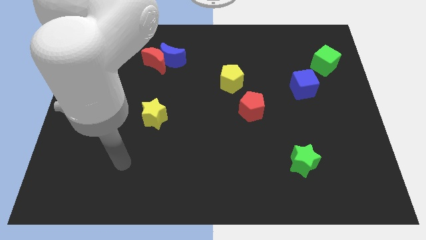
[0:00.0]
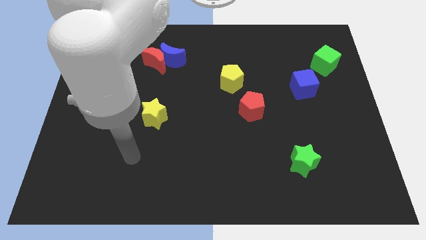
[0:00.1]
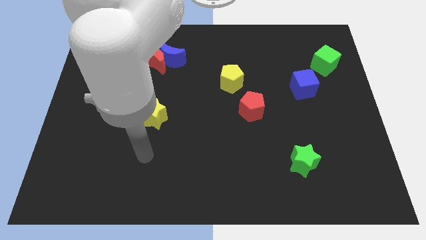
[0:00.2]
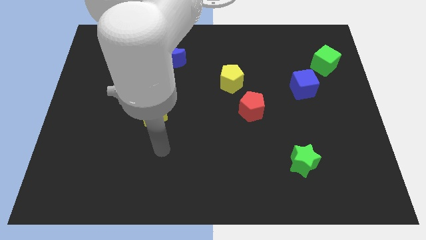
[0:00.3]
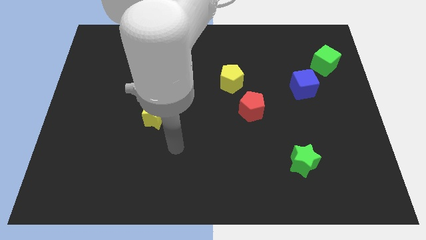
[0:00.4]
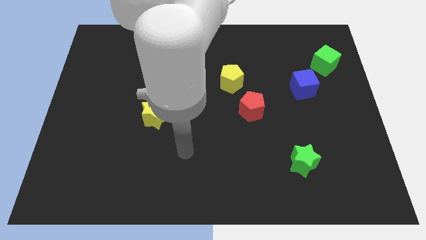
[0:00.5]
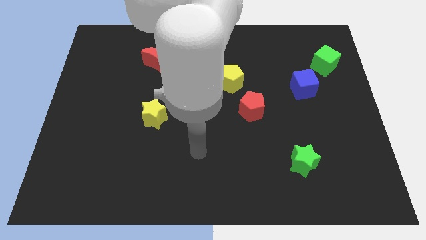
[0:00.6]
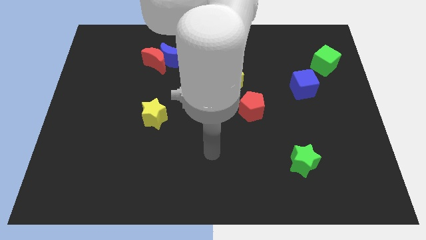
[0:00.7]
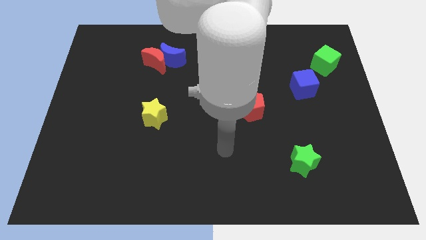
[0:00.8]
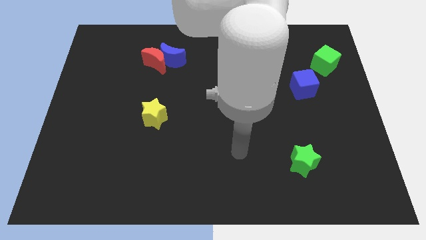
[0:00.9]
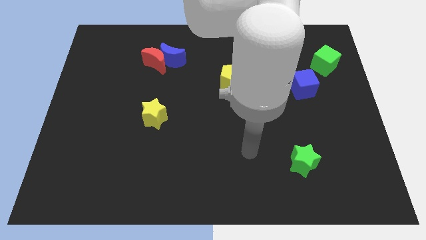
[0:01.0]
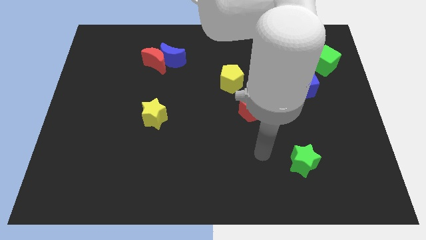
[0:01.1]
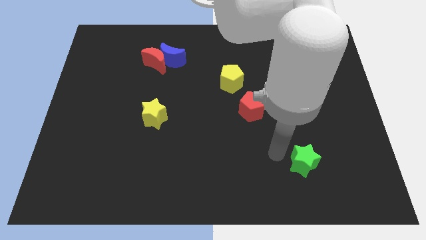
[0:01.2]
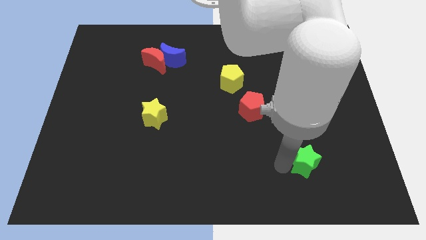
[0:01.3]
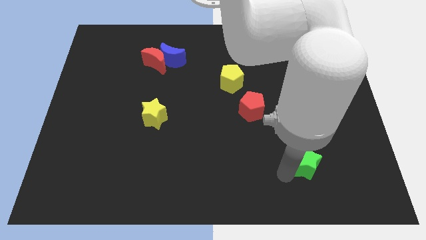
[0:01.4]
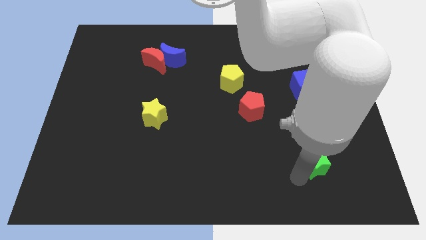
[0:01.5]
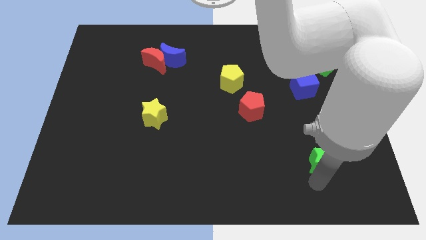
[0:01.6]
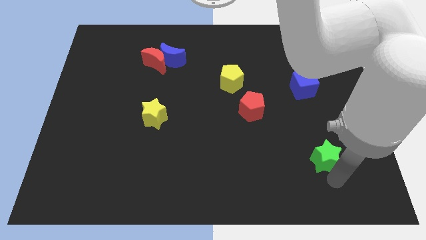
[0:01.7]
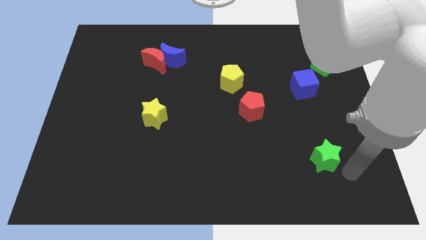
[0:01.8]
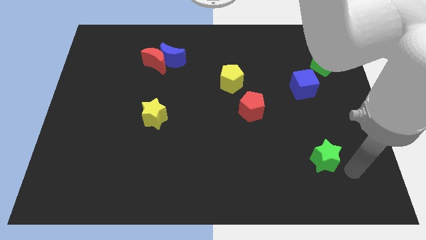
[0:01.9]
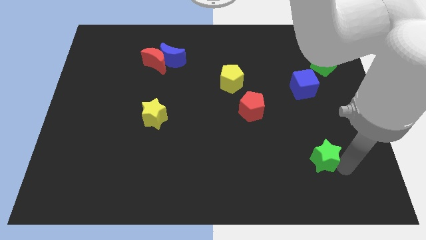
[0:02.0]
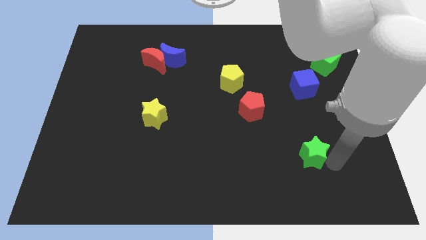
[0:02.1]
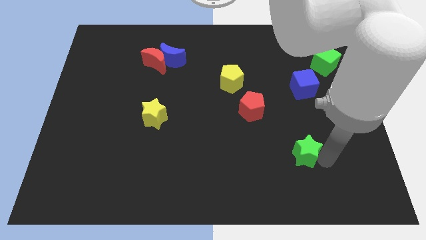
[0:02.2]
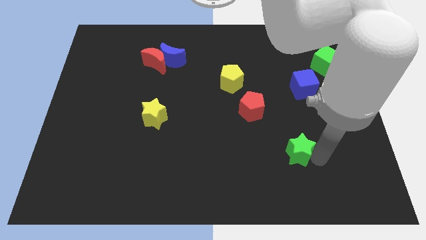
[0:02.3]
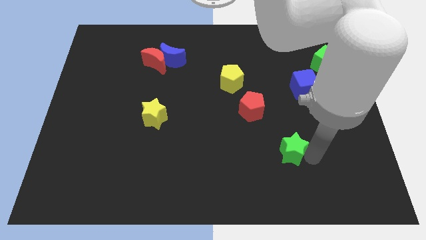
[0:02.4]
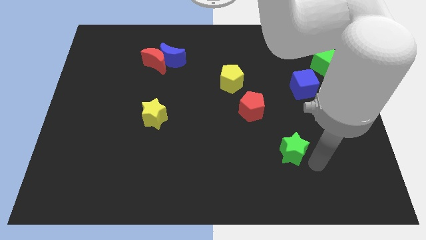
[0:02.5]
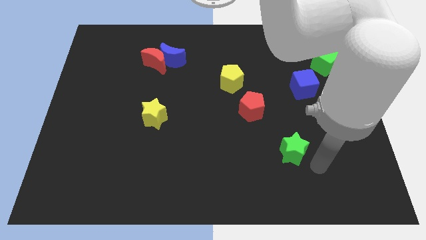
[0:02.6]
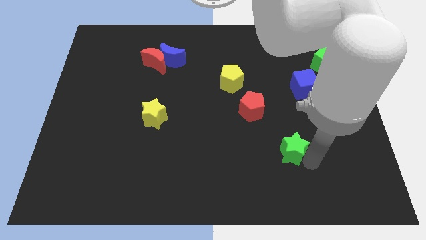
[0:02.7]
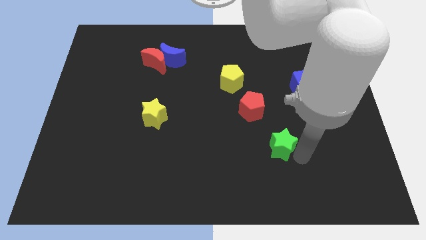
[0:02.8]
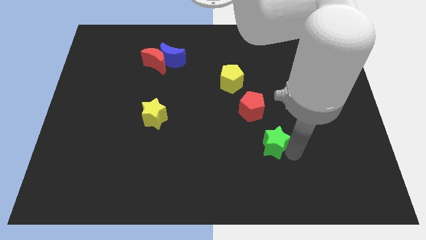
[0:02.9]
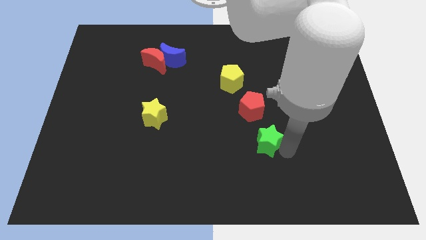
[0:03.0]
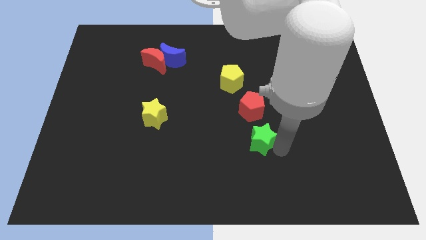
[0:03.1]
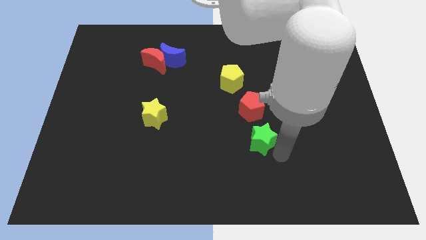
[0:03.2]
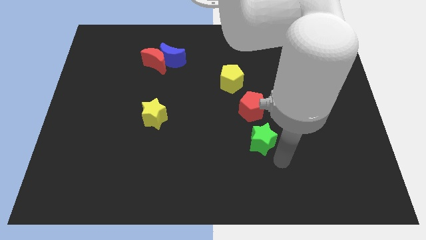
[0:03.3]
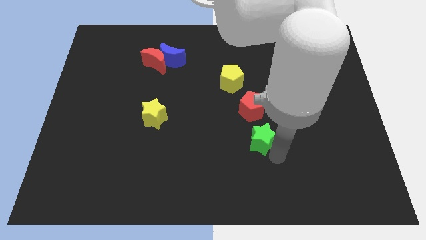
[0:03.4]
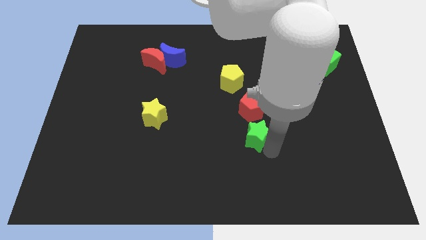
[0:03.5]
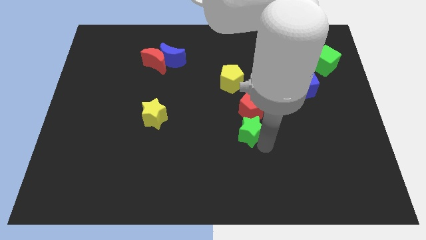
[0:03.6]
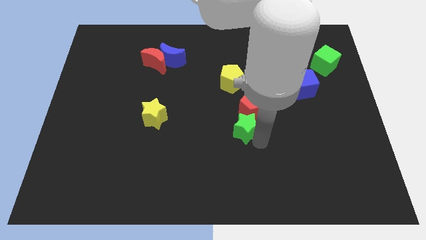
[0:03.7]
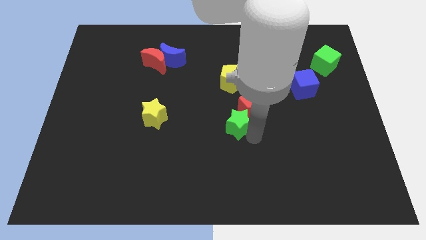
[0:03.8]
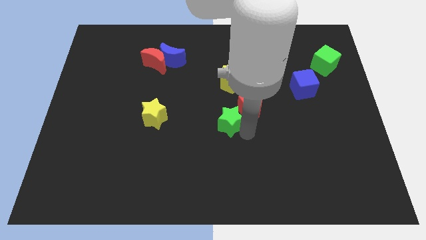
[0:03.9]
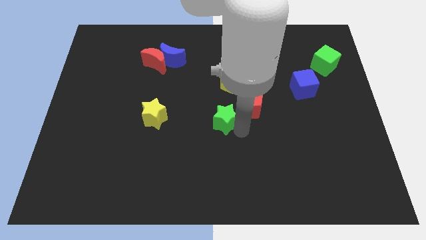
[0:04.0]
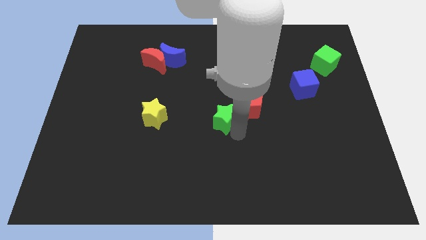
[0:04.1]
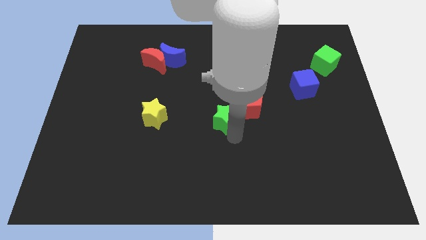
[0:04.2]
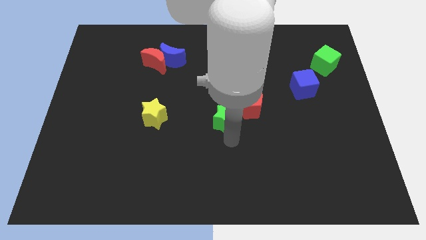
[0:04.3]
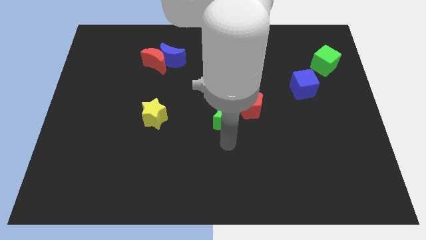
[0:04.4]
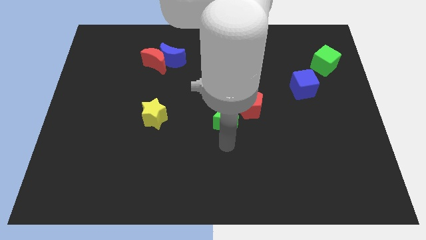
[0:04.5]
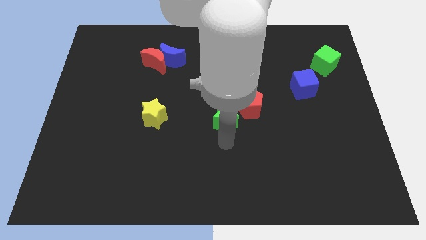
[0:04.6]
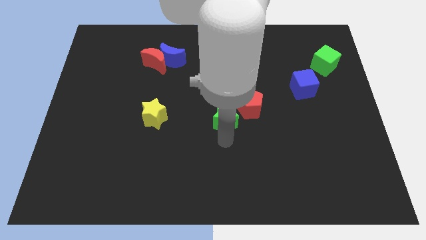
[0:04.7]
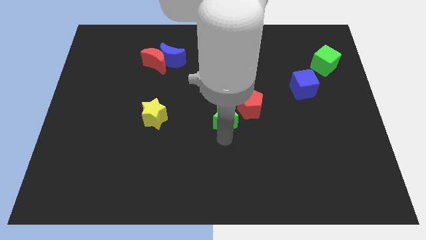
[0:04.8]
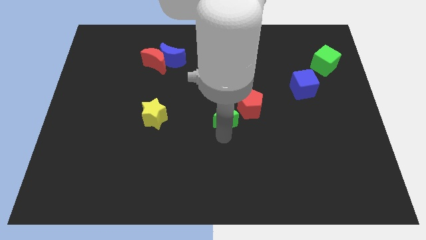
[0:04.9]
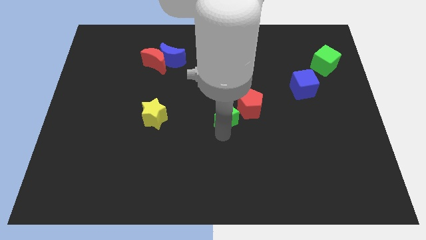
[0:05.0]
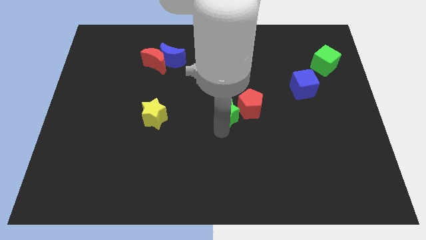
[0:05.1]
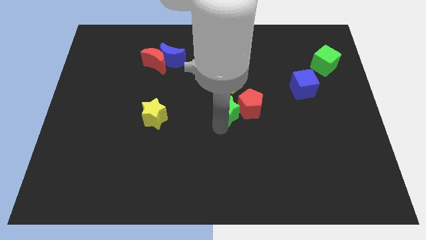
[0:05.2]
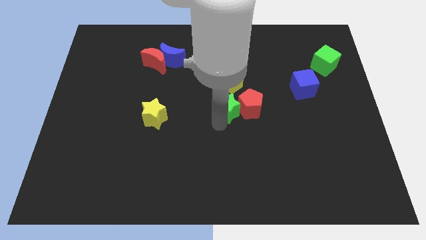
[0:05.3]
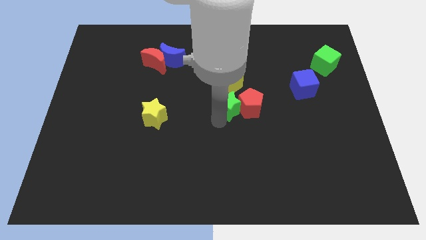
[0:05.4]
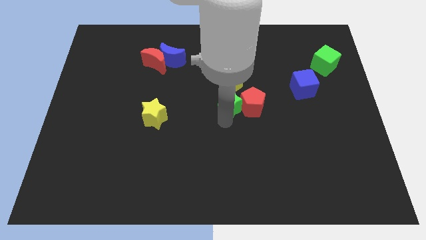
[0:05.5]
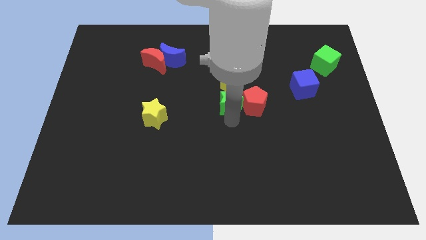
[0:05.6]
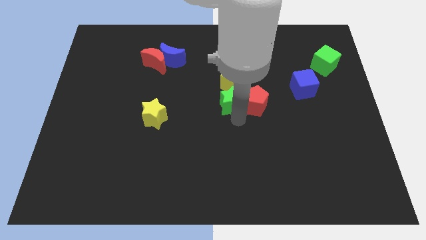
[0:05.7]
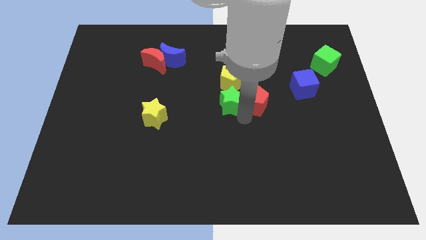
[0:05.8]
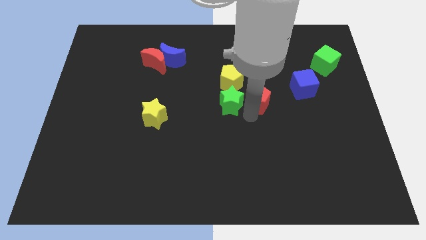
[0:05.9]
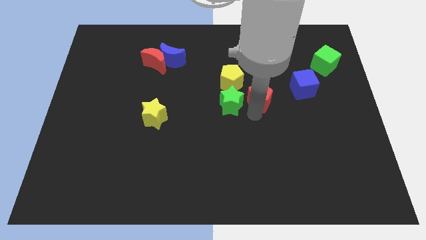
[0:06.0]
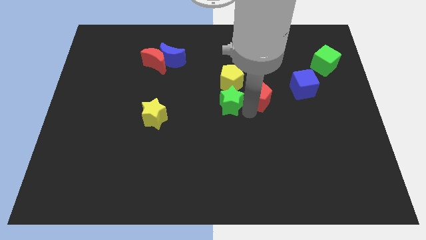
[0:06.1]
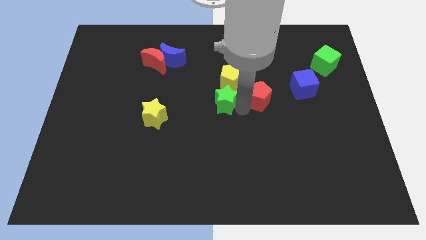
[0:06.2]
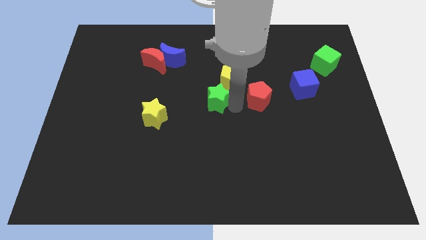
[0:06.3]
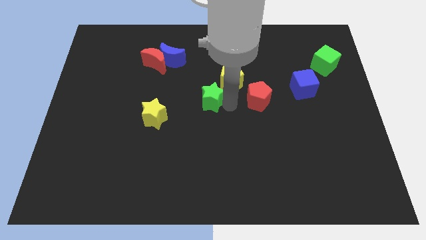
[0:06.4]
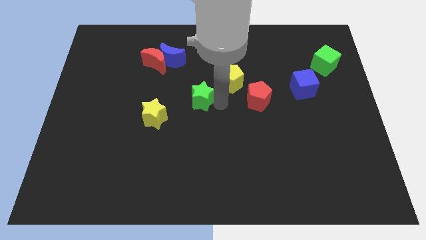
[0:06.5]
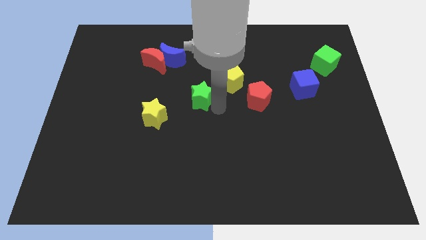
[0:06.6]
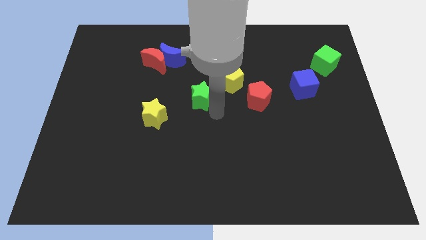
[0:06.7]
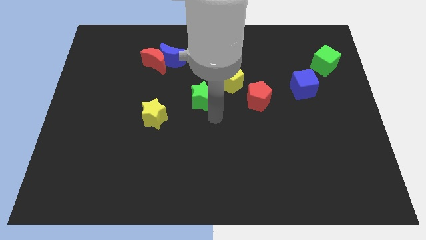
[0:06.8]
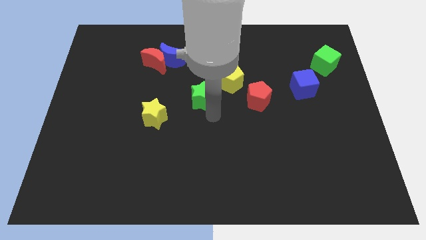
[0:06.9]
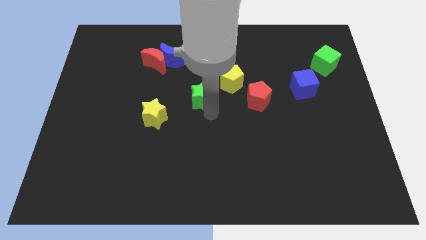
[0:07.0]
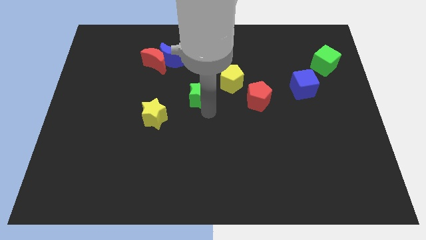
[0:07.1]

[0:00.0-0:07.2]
put the green star just left of the yellow pentagon
